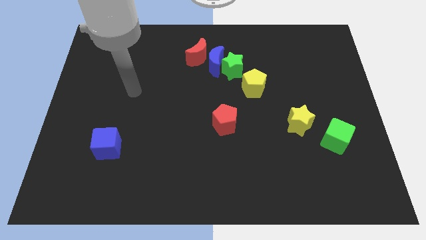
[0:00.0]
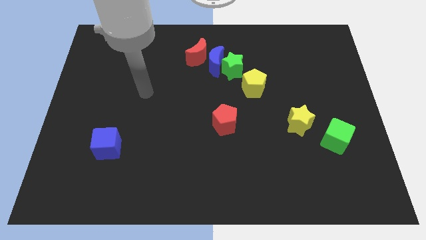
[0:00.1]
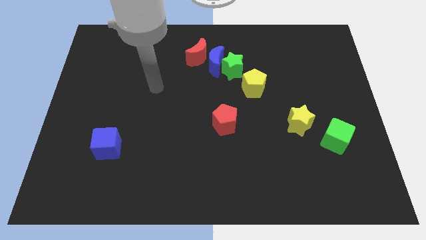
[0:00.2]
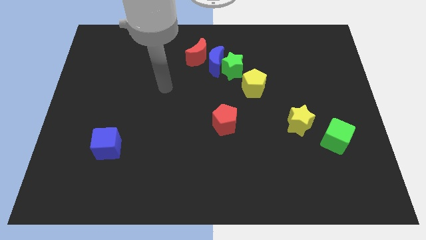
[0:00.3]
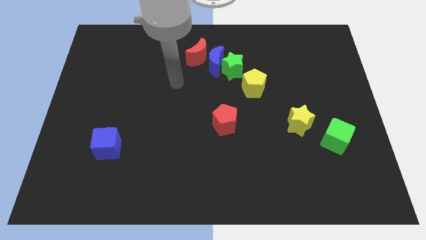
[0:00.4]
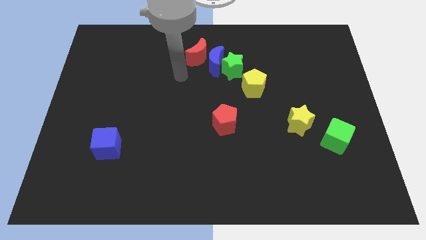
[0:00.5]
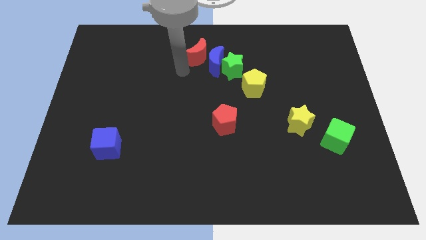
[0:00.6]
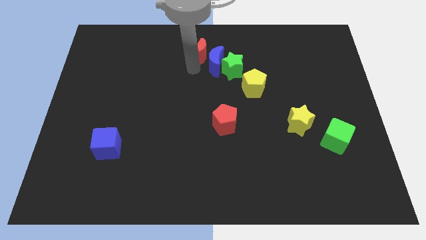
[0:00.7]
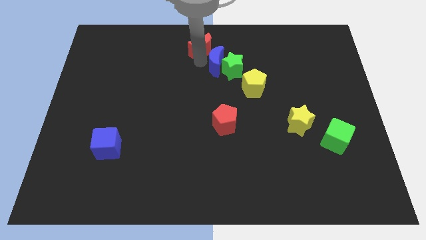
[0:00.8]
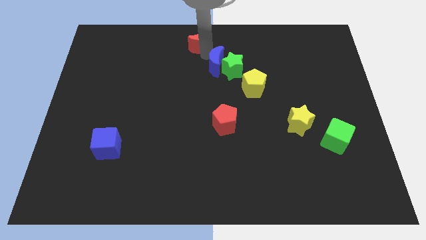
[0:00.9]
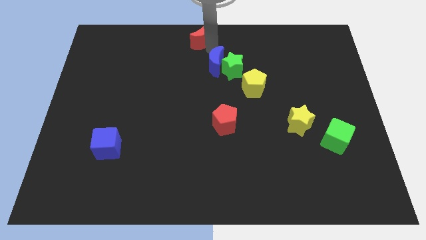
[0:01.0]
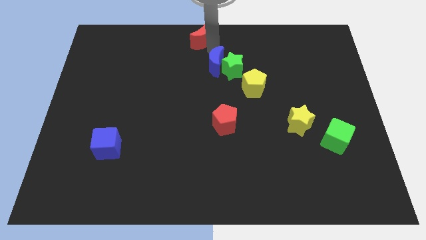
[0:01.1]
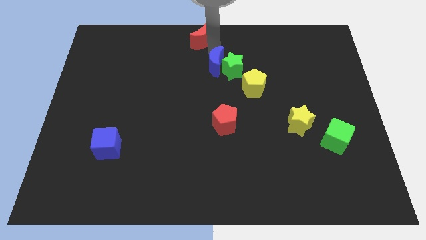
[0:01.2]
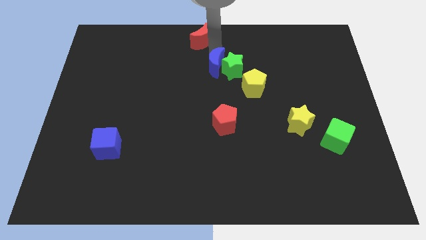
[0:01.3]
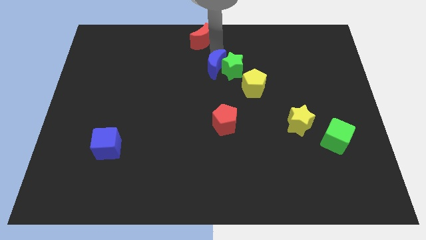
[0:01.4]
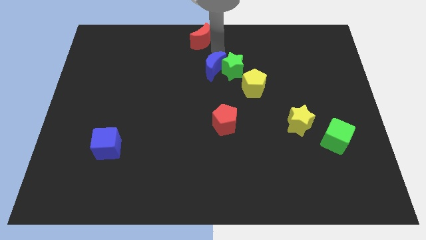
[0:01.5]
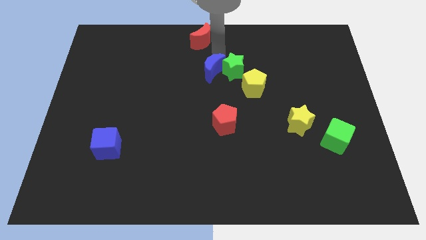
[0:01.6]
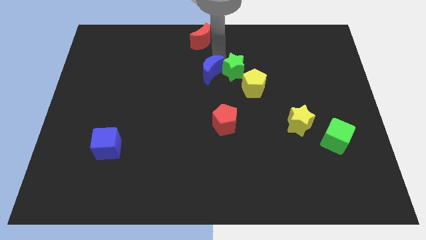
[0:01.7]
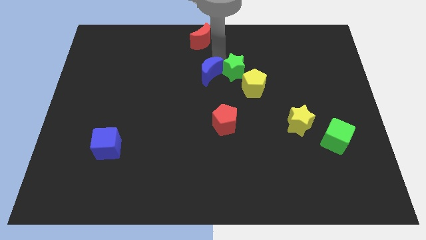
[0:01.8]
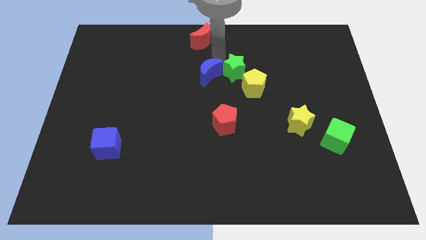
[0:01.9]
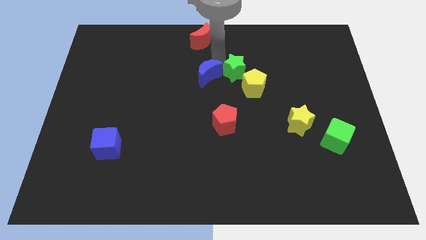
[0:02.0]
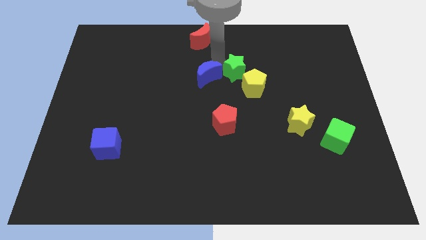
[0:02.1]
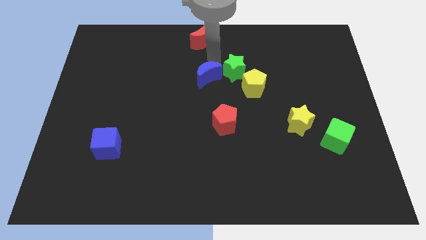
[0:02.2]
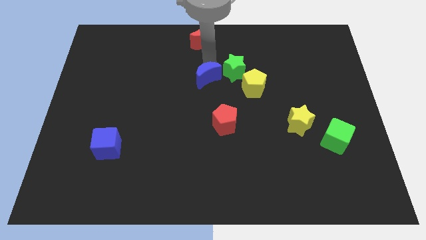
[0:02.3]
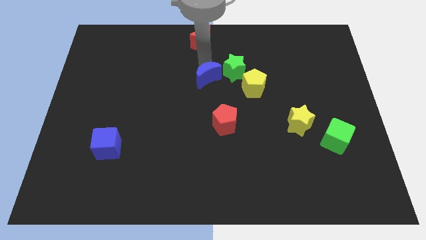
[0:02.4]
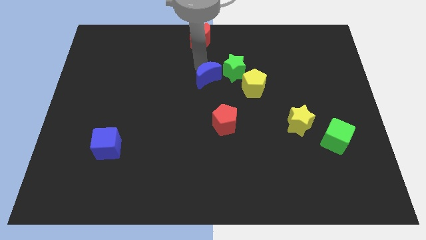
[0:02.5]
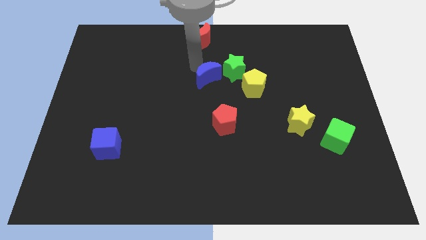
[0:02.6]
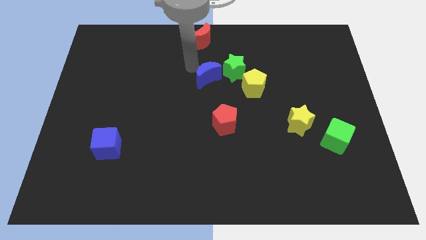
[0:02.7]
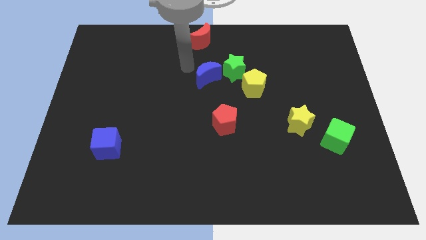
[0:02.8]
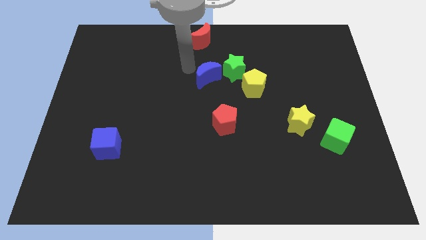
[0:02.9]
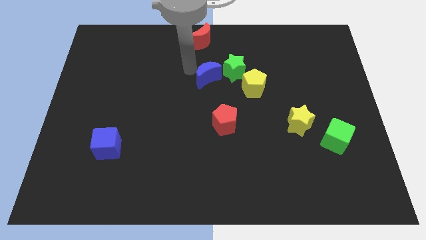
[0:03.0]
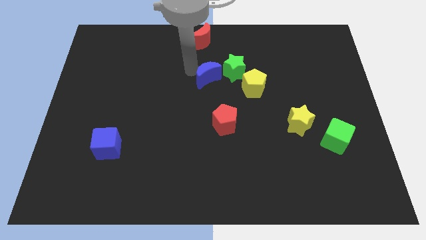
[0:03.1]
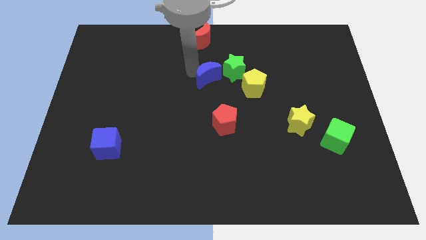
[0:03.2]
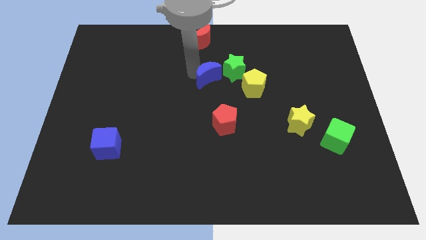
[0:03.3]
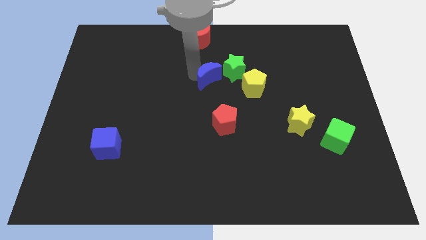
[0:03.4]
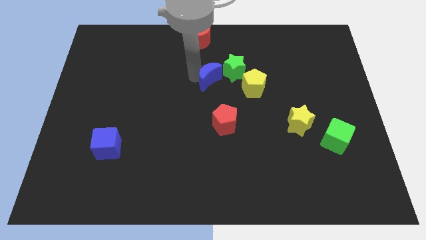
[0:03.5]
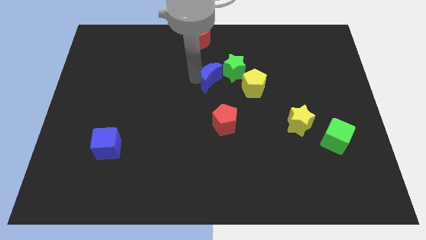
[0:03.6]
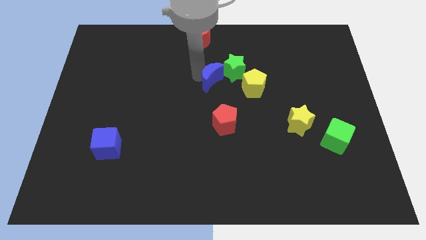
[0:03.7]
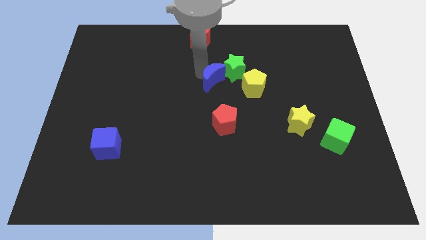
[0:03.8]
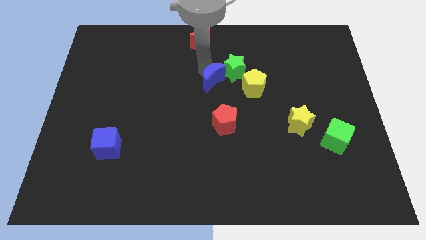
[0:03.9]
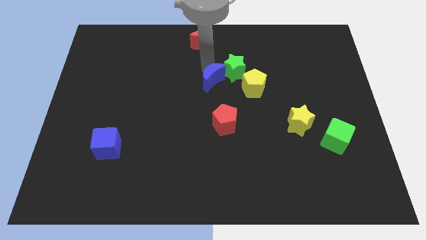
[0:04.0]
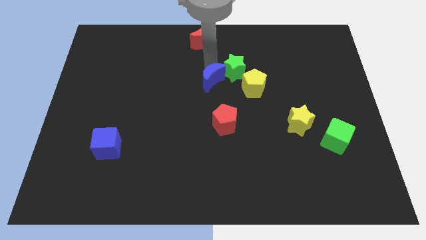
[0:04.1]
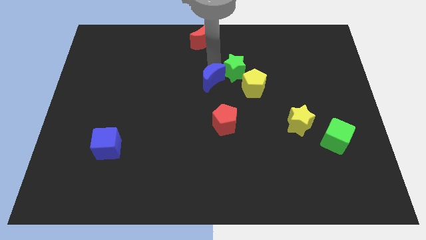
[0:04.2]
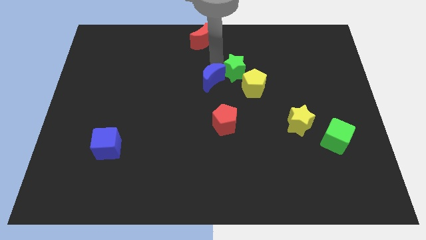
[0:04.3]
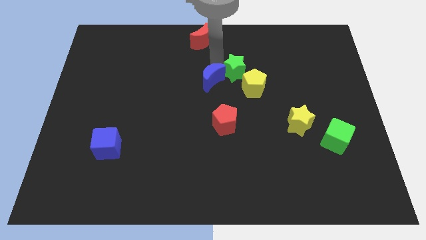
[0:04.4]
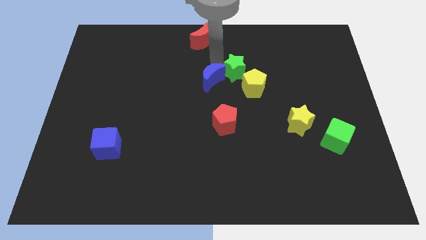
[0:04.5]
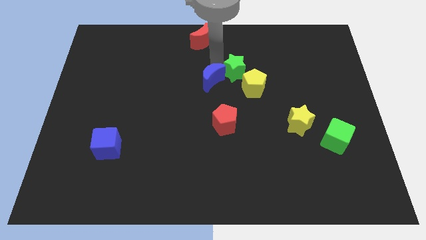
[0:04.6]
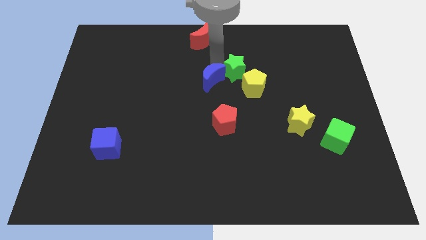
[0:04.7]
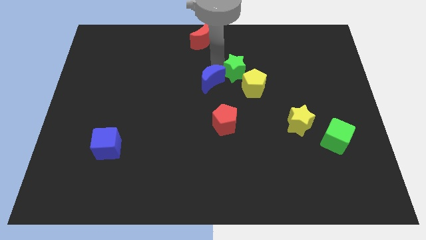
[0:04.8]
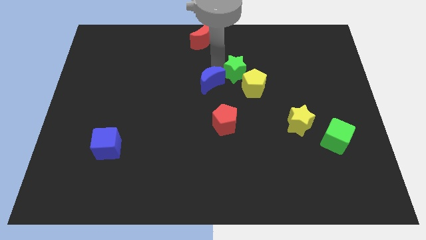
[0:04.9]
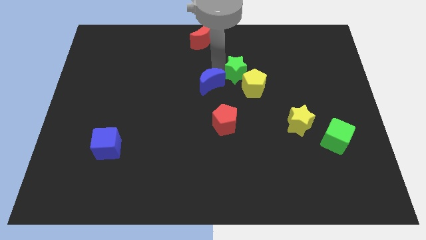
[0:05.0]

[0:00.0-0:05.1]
pull the blue moon apart from the green star and red moon

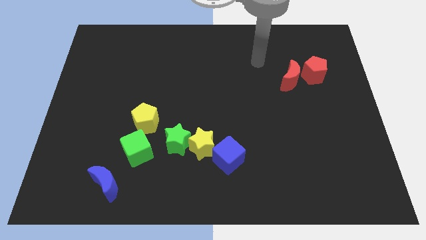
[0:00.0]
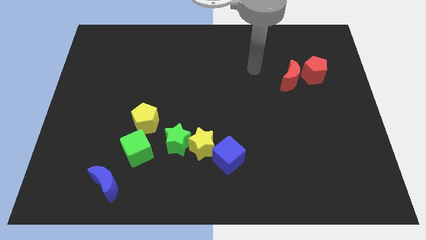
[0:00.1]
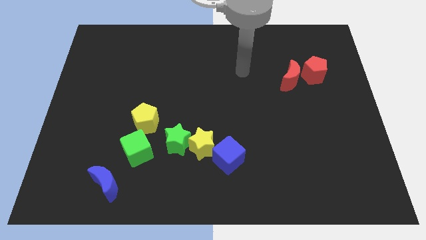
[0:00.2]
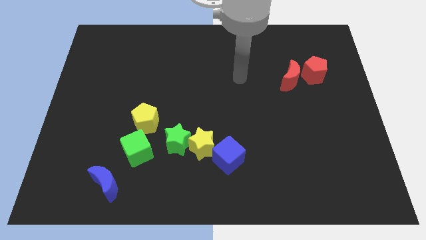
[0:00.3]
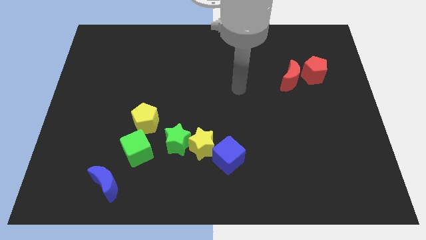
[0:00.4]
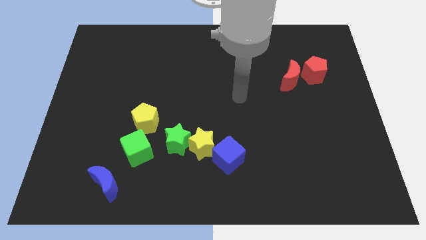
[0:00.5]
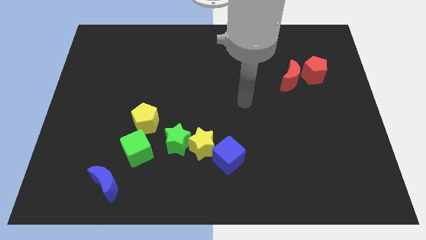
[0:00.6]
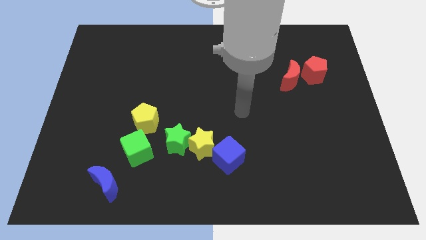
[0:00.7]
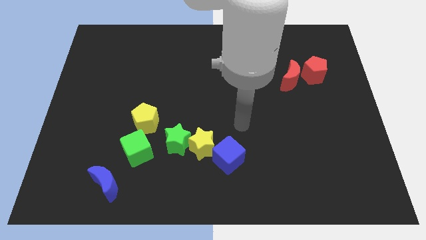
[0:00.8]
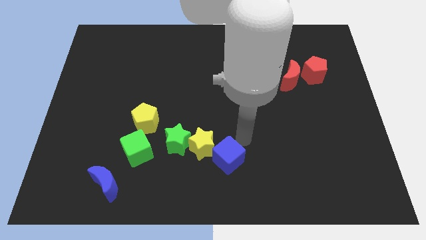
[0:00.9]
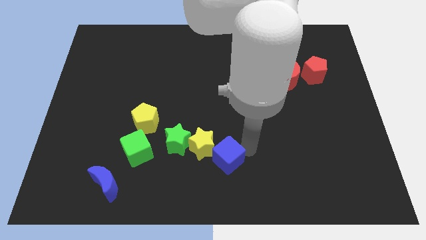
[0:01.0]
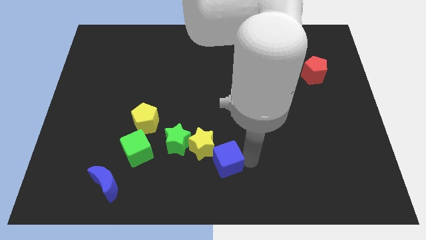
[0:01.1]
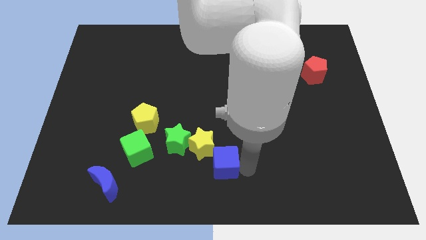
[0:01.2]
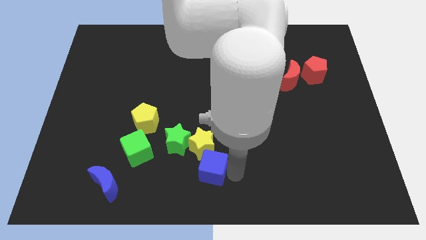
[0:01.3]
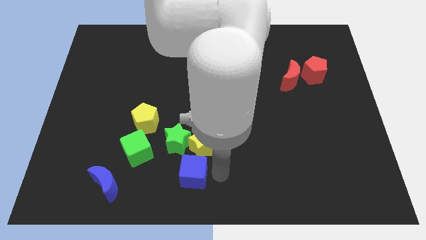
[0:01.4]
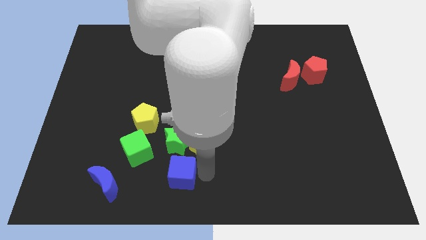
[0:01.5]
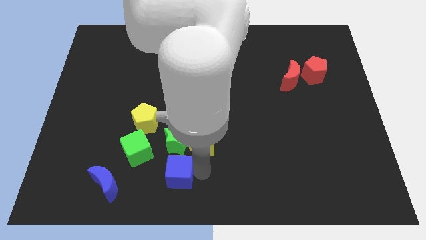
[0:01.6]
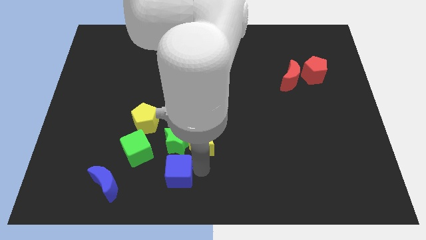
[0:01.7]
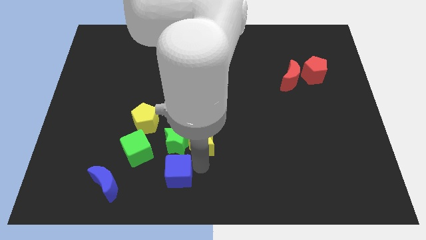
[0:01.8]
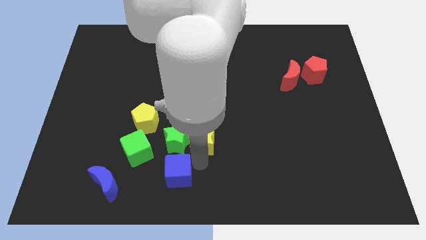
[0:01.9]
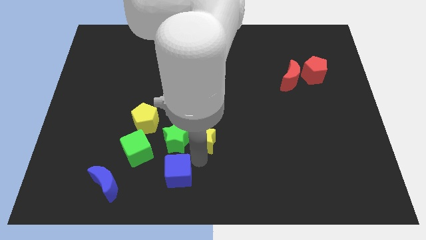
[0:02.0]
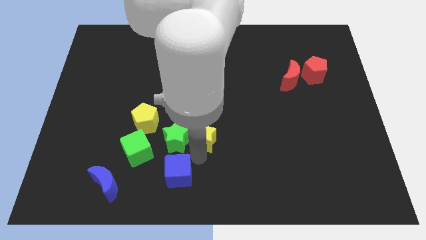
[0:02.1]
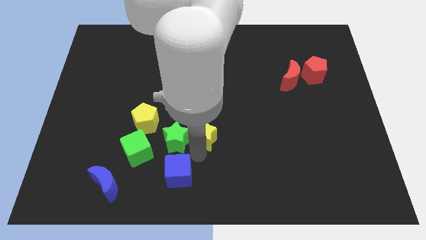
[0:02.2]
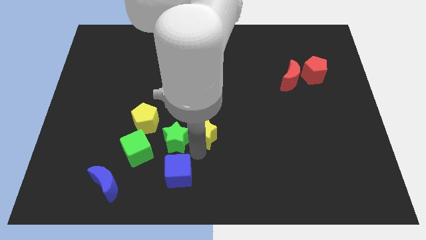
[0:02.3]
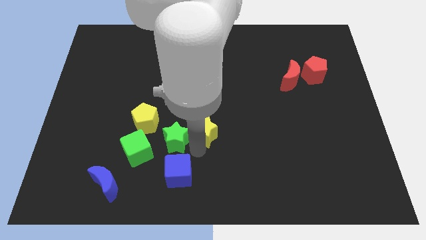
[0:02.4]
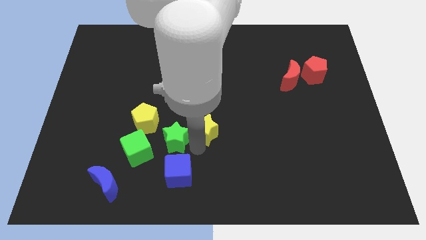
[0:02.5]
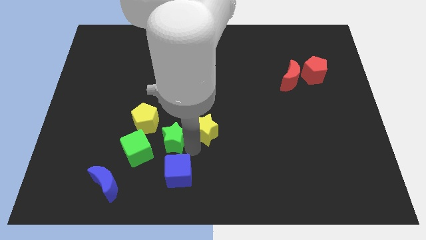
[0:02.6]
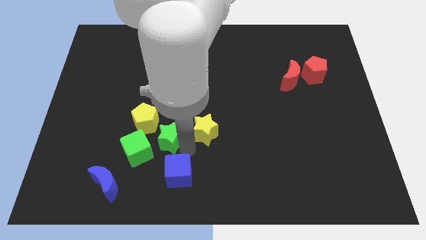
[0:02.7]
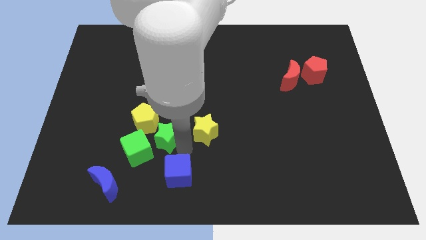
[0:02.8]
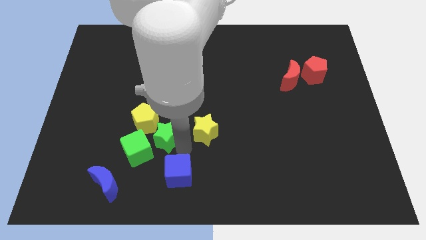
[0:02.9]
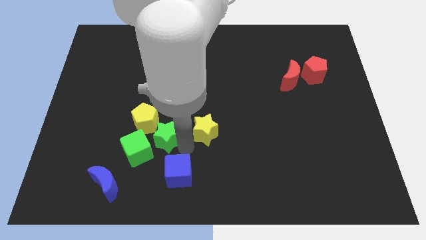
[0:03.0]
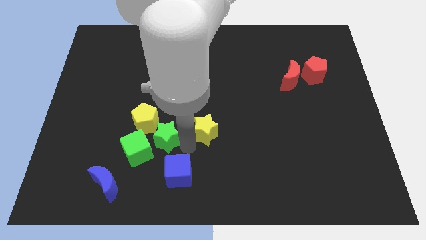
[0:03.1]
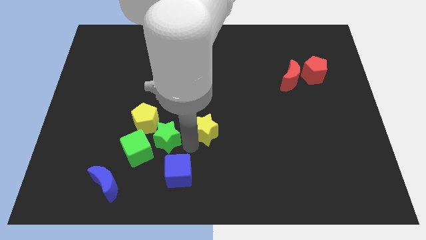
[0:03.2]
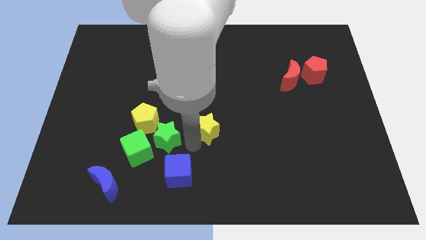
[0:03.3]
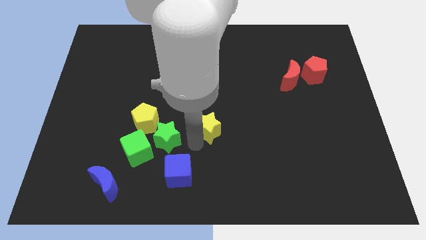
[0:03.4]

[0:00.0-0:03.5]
move the yellow star away from the green star and blue cube

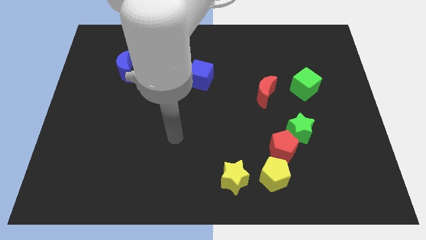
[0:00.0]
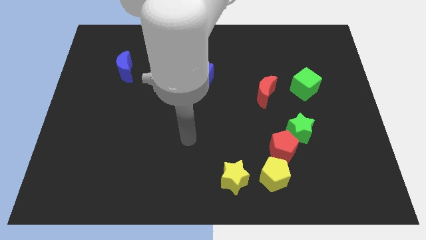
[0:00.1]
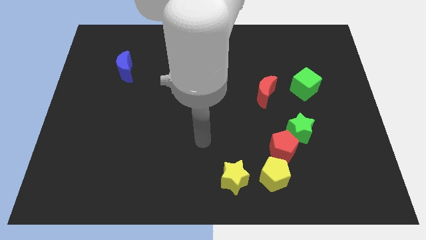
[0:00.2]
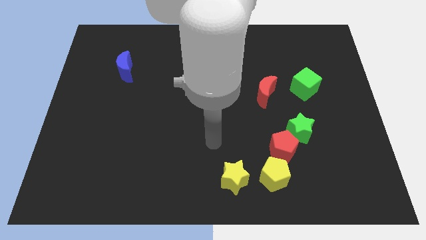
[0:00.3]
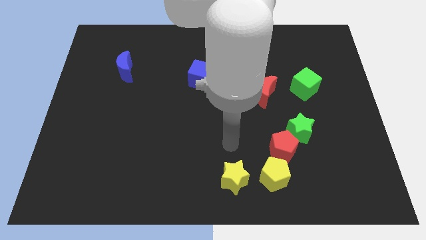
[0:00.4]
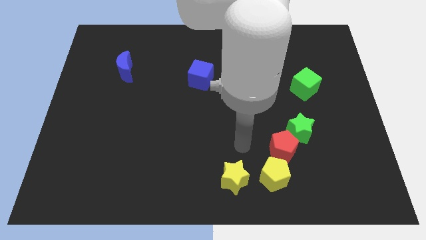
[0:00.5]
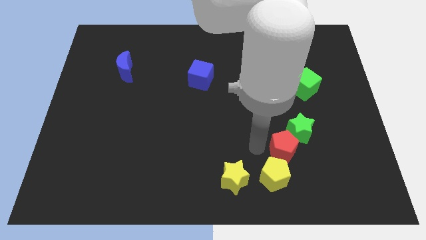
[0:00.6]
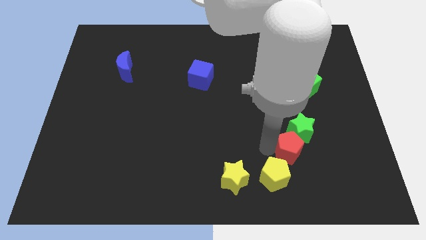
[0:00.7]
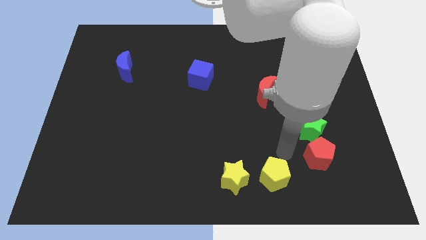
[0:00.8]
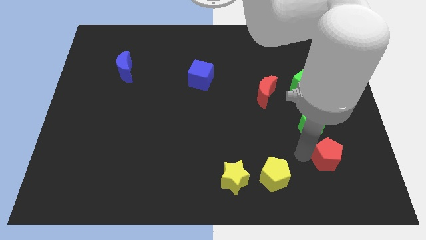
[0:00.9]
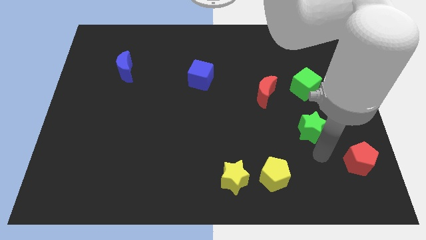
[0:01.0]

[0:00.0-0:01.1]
separate the green star from the red pentagon
